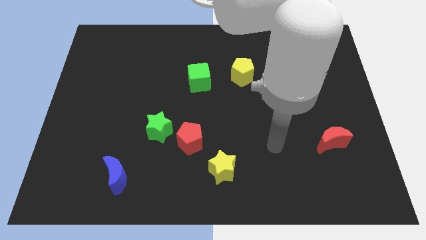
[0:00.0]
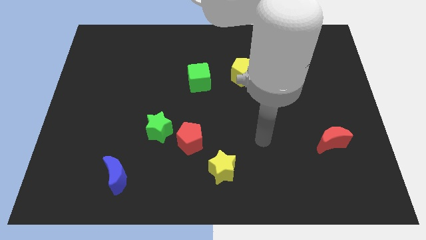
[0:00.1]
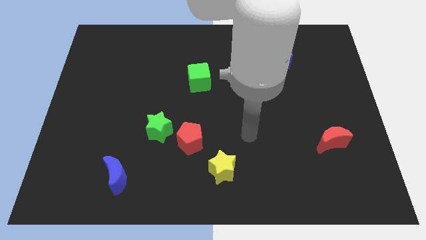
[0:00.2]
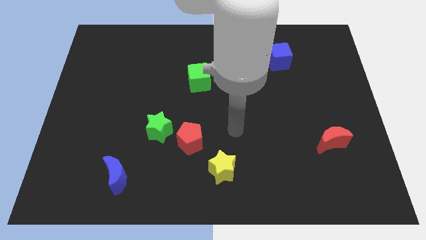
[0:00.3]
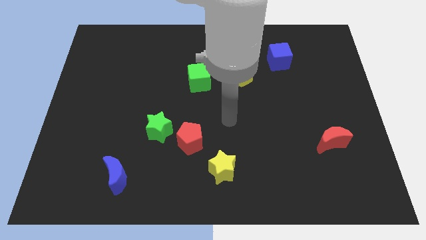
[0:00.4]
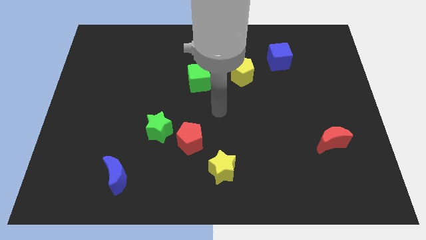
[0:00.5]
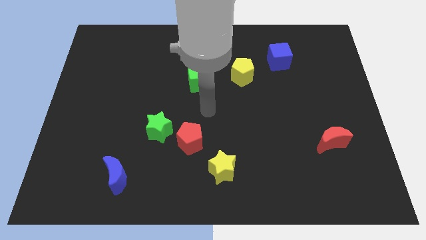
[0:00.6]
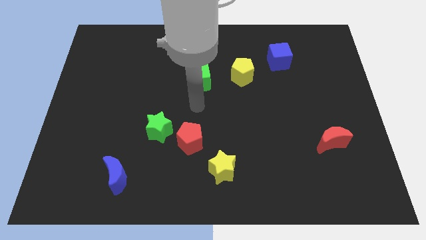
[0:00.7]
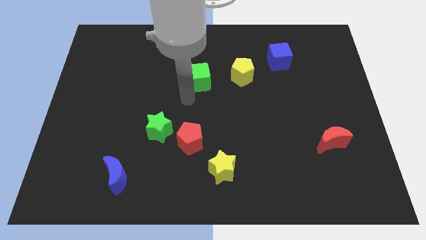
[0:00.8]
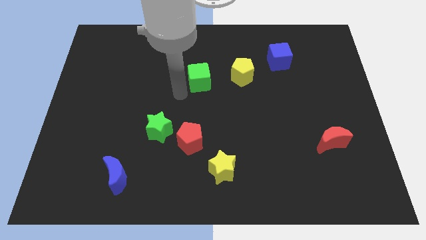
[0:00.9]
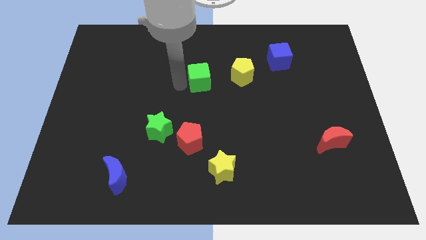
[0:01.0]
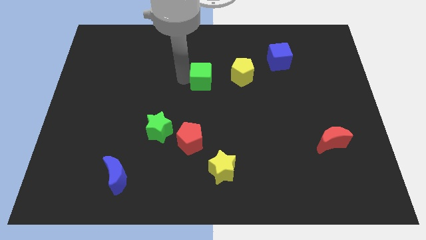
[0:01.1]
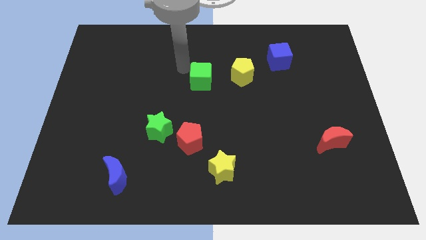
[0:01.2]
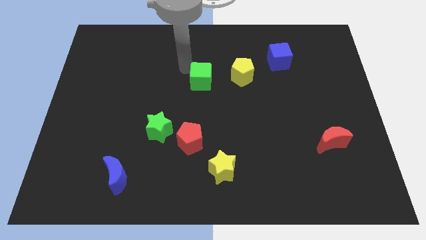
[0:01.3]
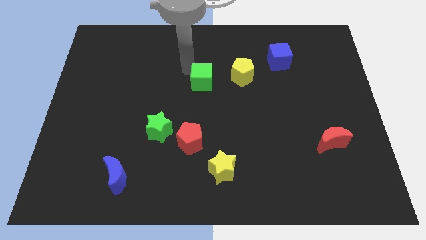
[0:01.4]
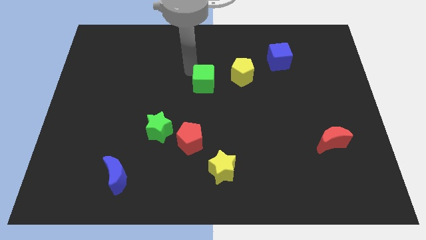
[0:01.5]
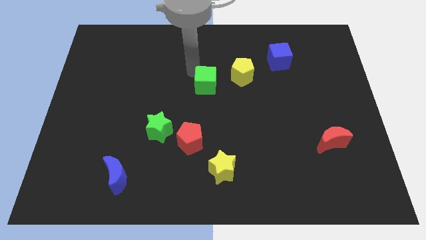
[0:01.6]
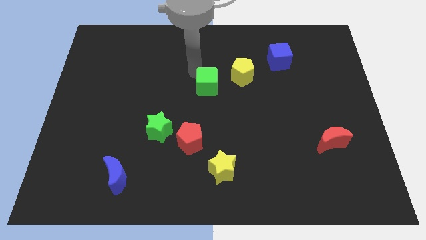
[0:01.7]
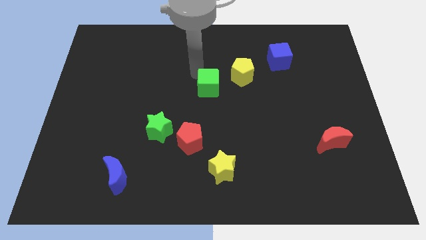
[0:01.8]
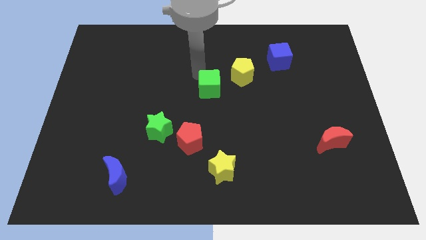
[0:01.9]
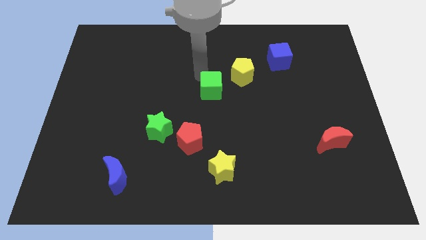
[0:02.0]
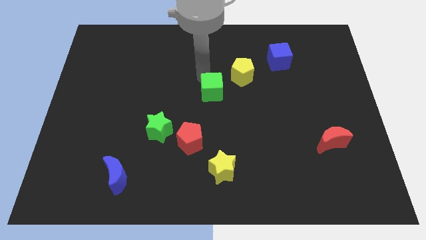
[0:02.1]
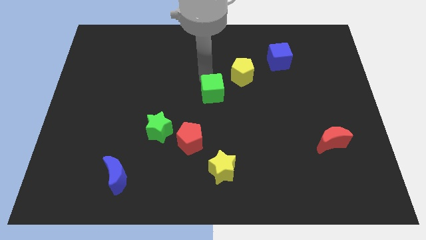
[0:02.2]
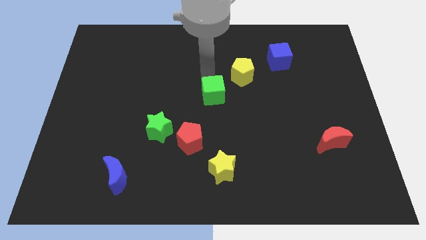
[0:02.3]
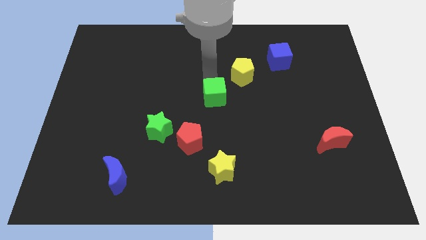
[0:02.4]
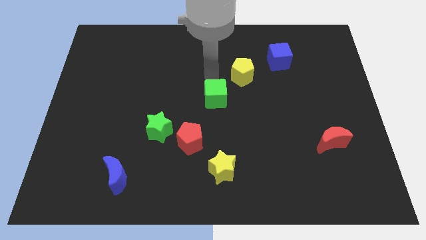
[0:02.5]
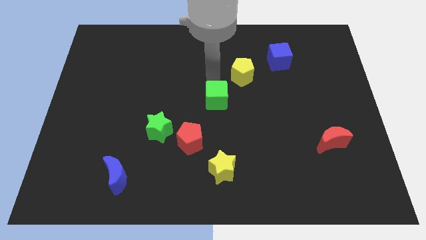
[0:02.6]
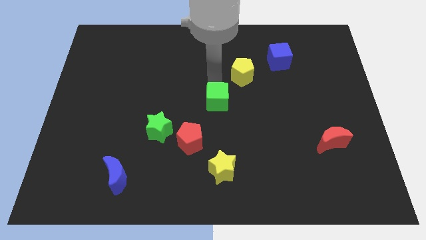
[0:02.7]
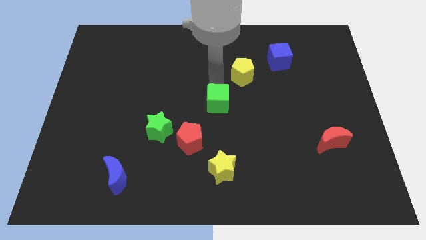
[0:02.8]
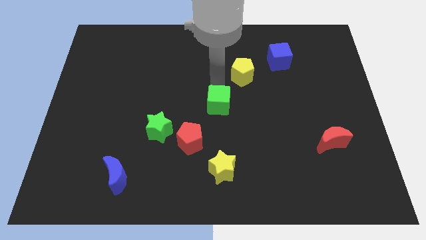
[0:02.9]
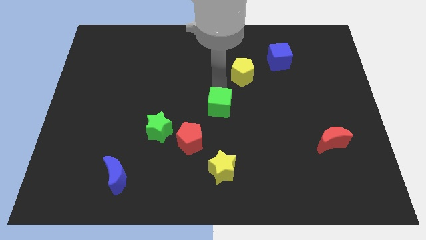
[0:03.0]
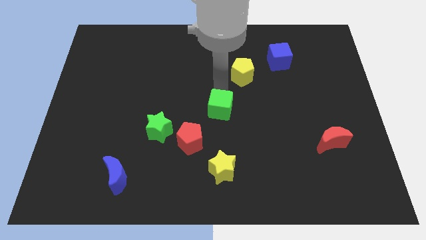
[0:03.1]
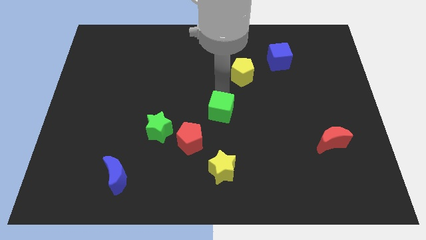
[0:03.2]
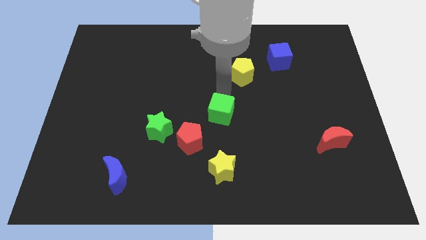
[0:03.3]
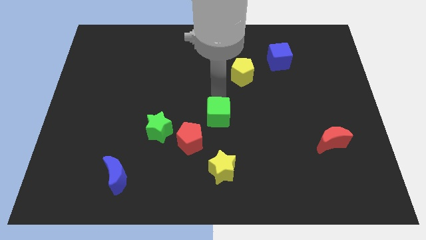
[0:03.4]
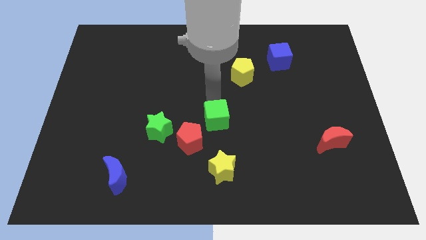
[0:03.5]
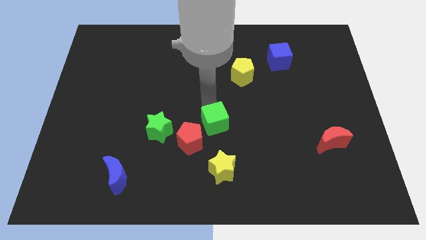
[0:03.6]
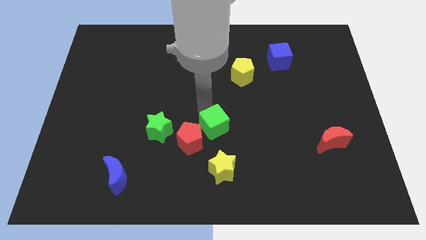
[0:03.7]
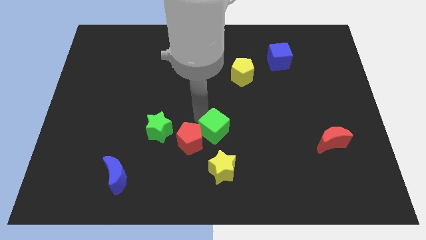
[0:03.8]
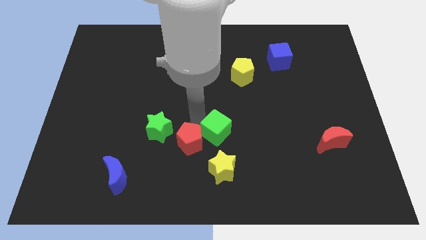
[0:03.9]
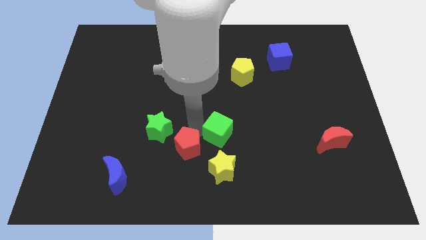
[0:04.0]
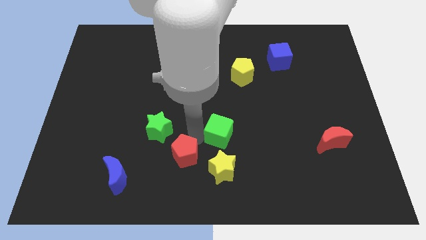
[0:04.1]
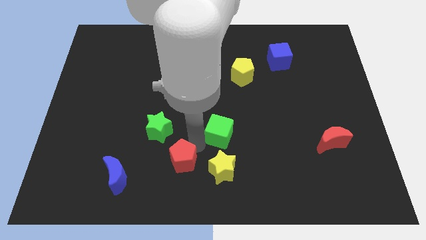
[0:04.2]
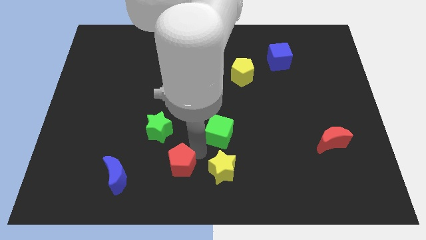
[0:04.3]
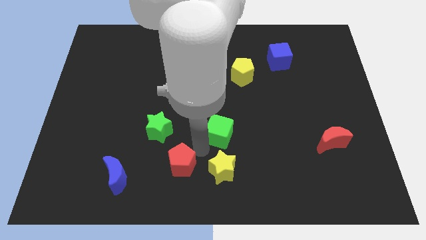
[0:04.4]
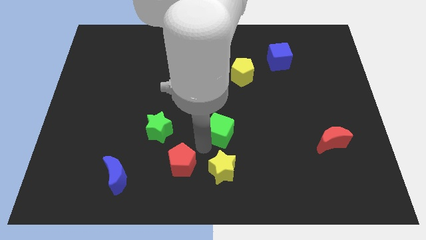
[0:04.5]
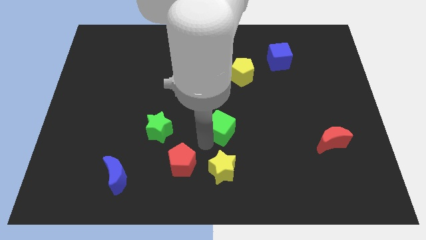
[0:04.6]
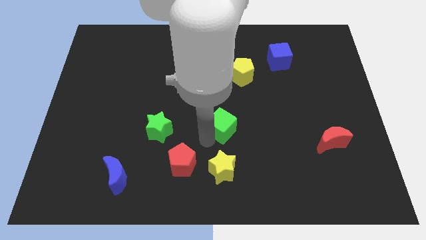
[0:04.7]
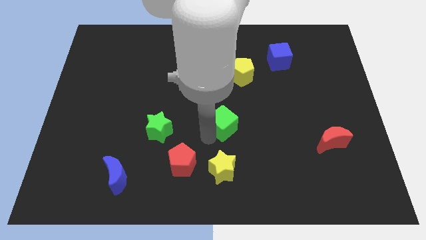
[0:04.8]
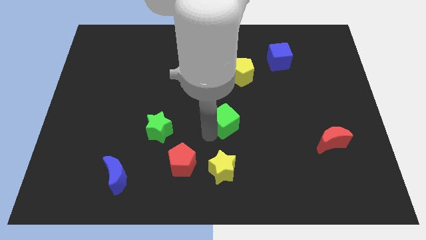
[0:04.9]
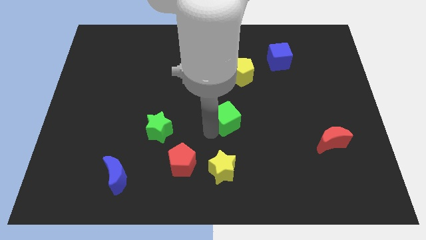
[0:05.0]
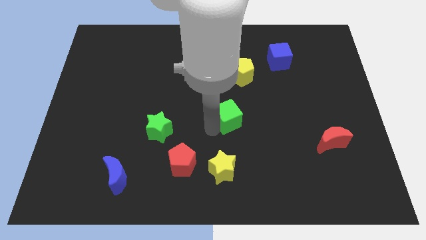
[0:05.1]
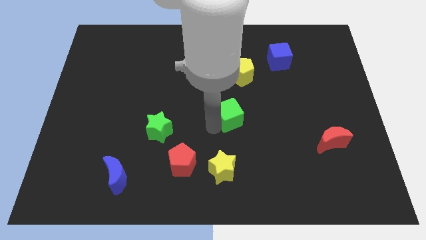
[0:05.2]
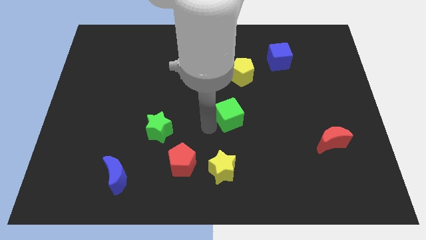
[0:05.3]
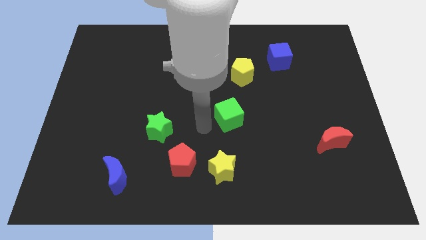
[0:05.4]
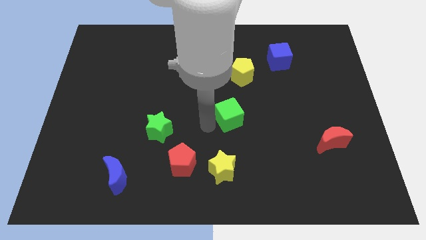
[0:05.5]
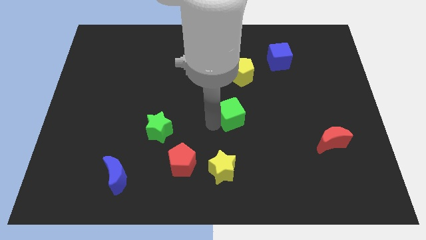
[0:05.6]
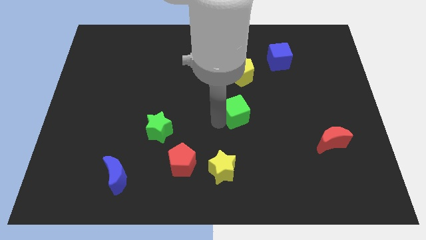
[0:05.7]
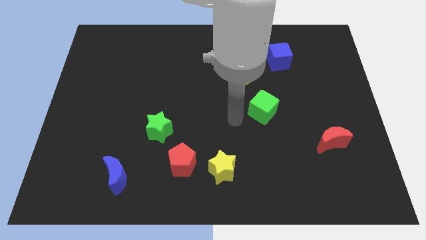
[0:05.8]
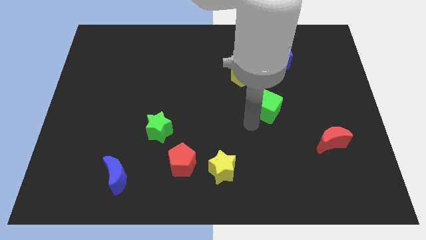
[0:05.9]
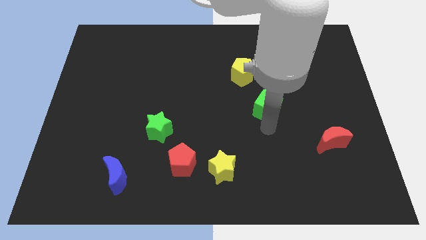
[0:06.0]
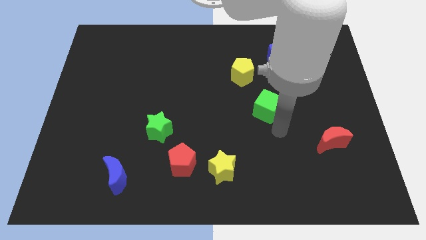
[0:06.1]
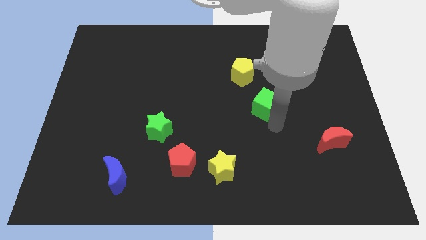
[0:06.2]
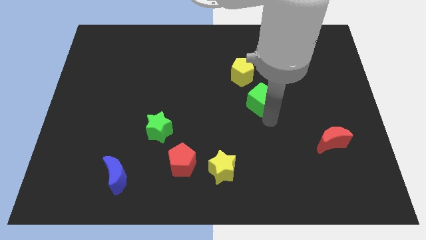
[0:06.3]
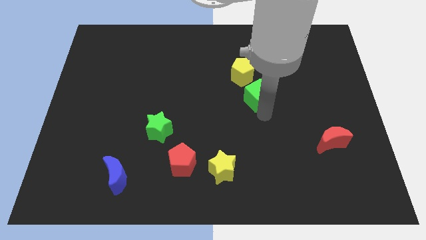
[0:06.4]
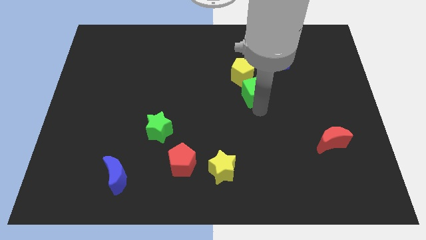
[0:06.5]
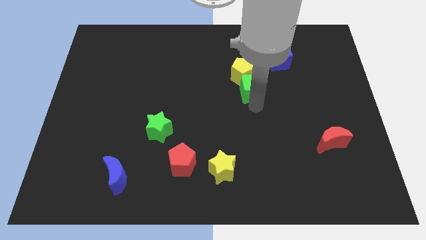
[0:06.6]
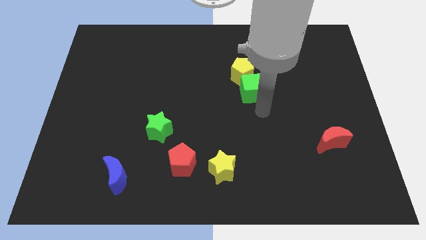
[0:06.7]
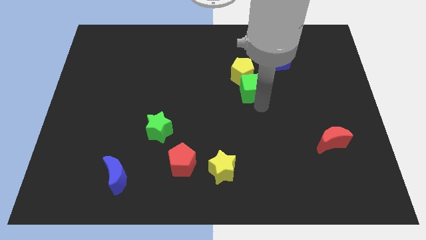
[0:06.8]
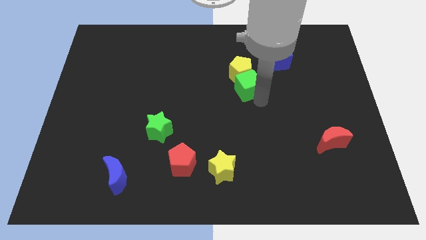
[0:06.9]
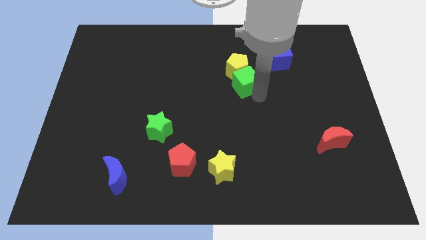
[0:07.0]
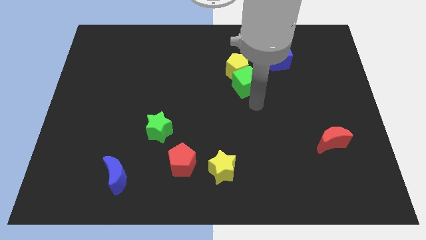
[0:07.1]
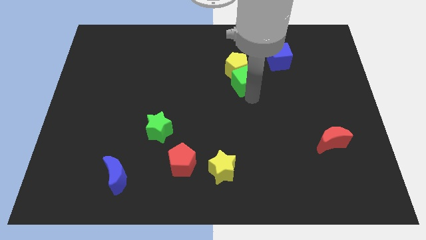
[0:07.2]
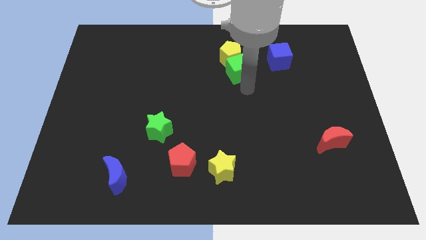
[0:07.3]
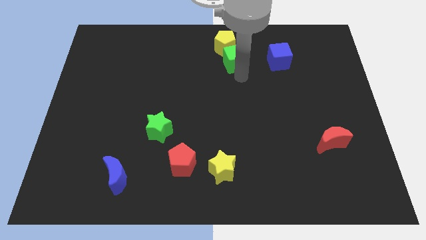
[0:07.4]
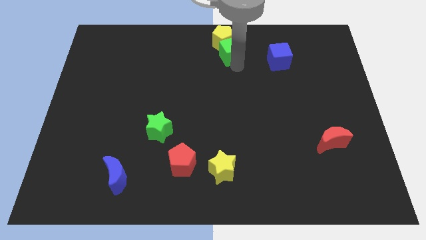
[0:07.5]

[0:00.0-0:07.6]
push the green cube to the top side
